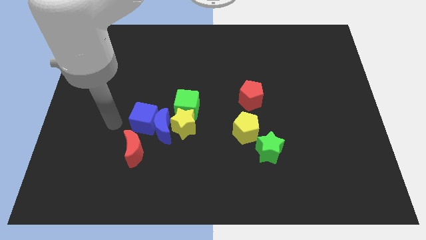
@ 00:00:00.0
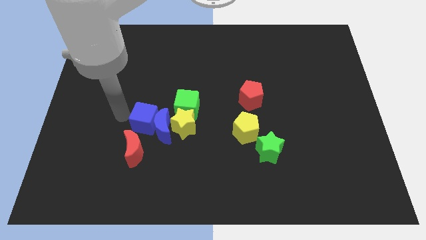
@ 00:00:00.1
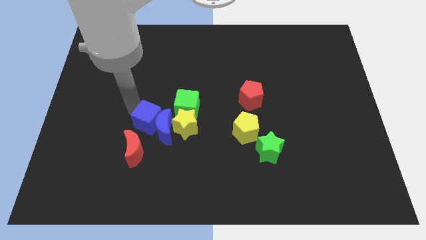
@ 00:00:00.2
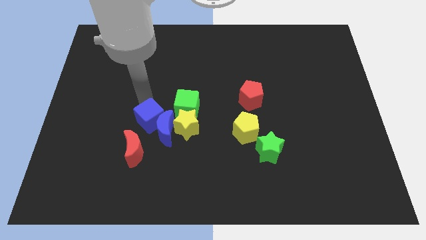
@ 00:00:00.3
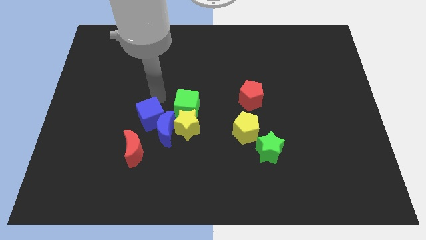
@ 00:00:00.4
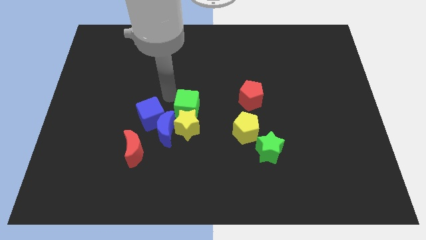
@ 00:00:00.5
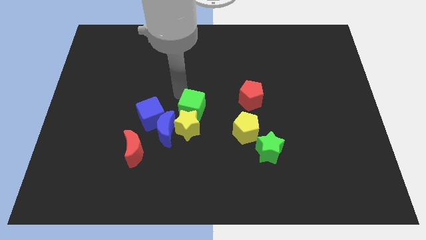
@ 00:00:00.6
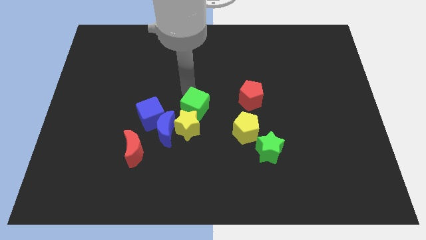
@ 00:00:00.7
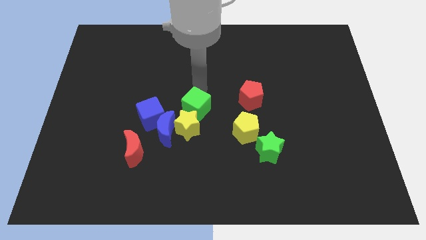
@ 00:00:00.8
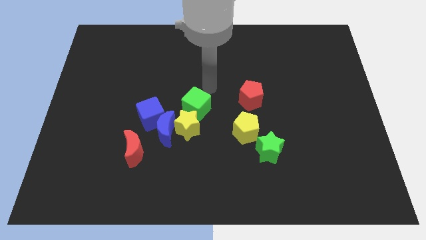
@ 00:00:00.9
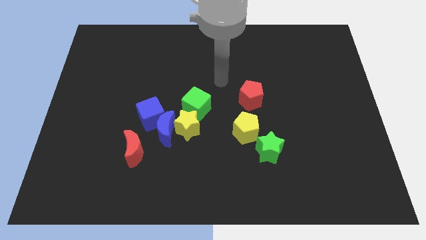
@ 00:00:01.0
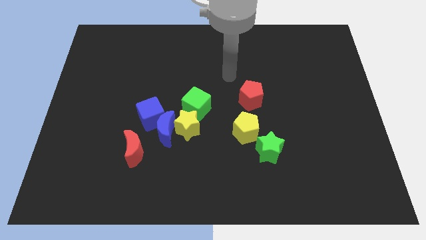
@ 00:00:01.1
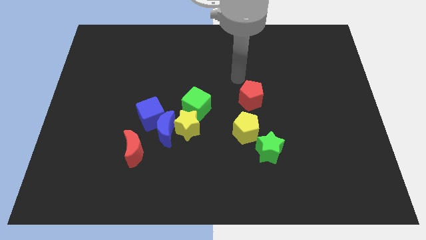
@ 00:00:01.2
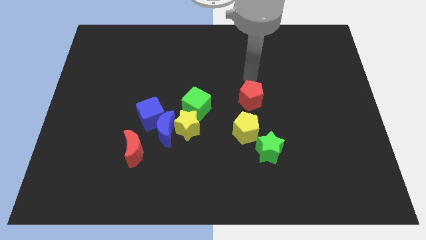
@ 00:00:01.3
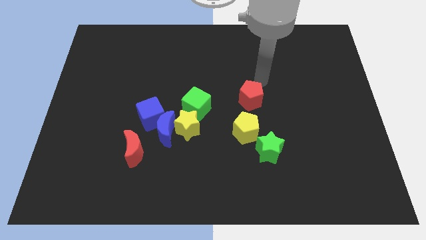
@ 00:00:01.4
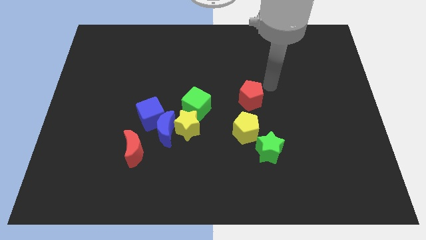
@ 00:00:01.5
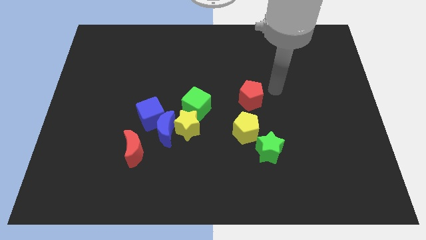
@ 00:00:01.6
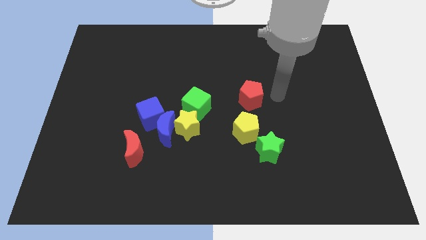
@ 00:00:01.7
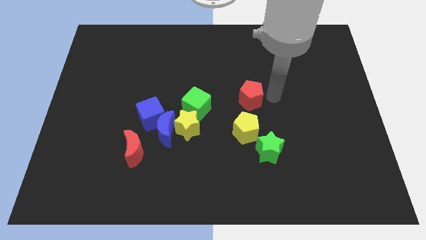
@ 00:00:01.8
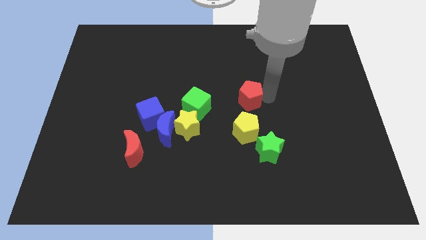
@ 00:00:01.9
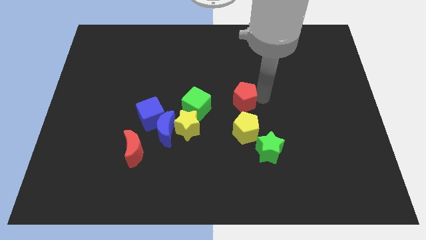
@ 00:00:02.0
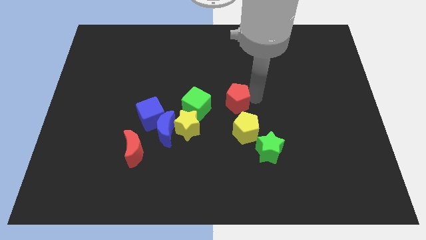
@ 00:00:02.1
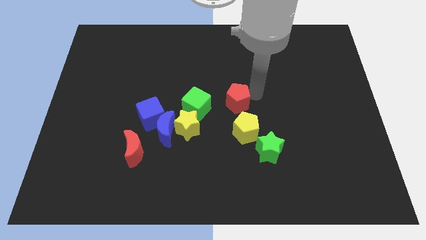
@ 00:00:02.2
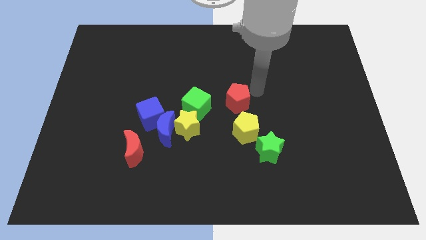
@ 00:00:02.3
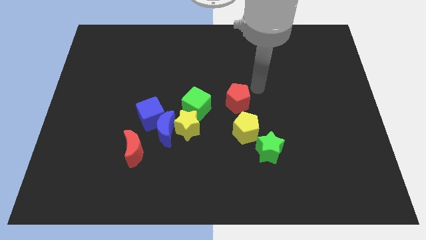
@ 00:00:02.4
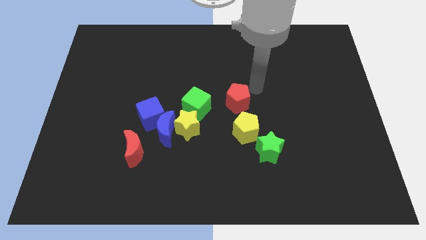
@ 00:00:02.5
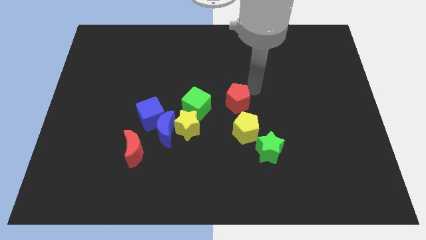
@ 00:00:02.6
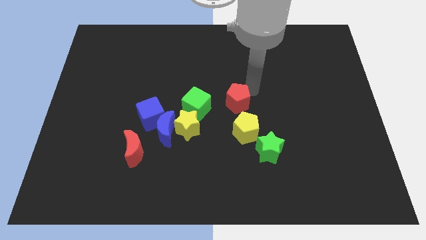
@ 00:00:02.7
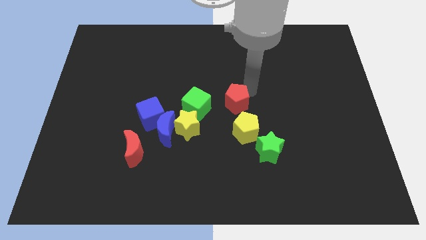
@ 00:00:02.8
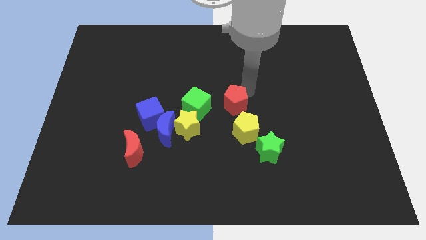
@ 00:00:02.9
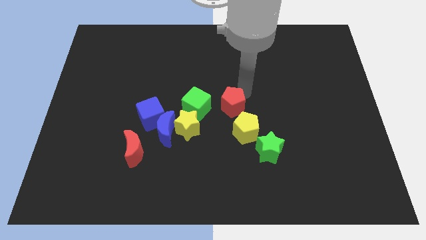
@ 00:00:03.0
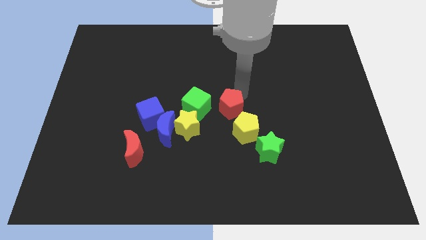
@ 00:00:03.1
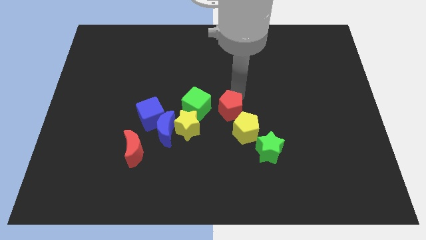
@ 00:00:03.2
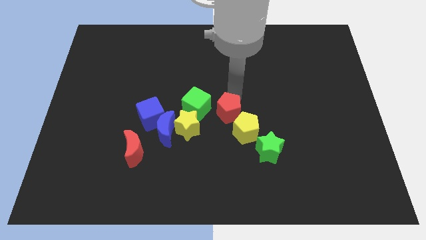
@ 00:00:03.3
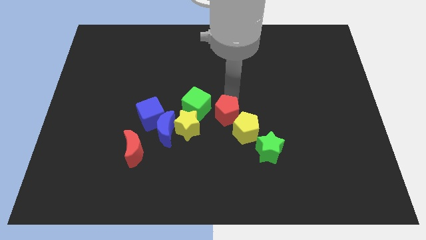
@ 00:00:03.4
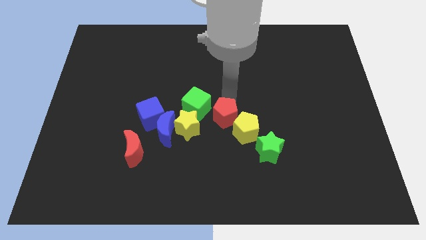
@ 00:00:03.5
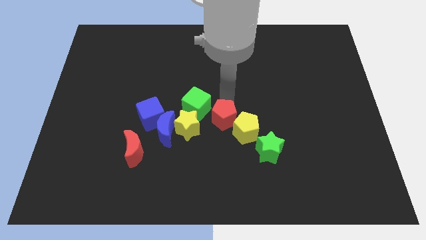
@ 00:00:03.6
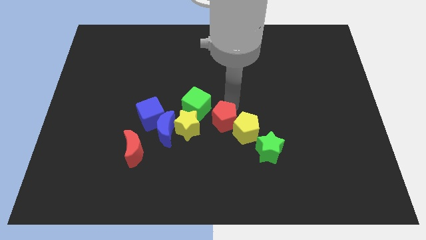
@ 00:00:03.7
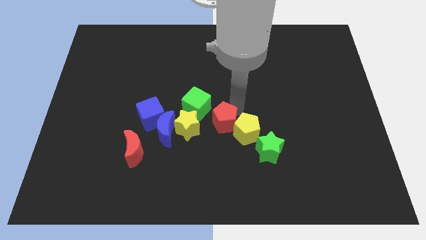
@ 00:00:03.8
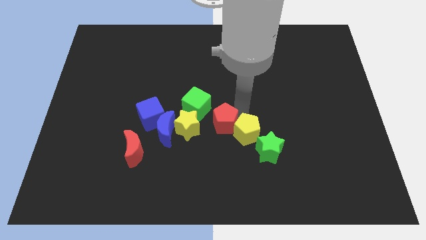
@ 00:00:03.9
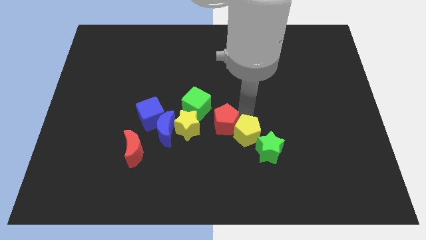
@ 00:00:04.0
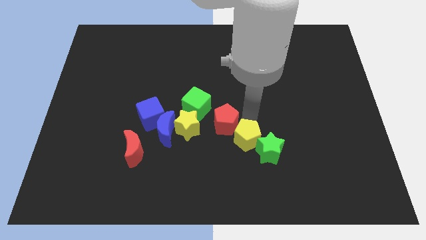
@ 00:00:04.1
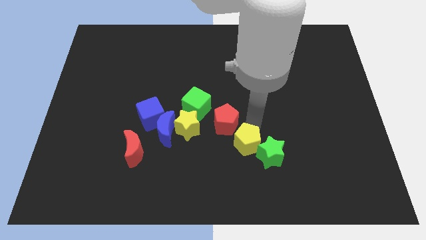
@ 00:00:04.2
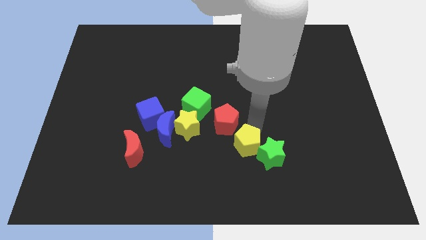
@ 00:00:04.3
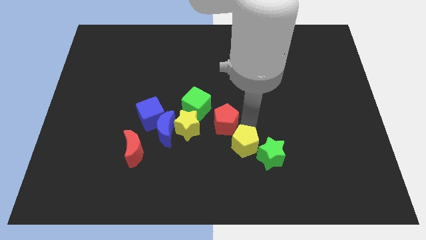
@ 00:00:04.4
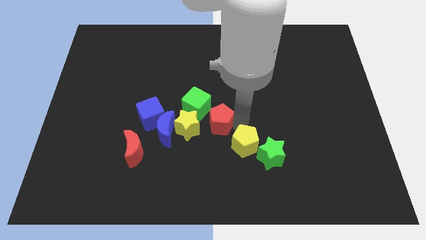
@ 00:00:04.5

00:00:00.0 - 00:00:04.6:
push the red pentagon to the right side of the blue cube

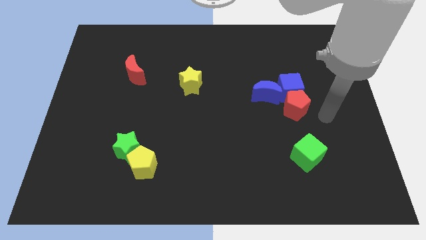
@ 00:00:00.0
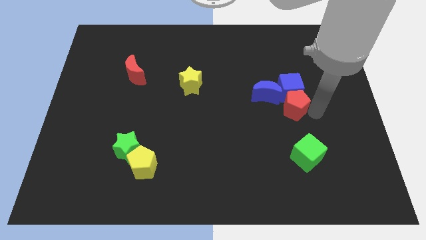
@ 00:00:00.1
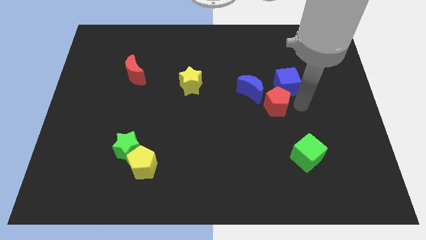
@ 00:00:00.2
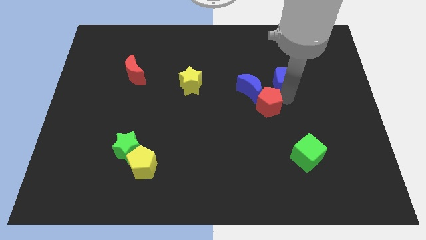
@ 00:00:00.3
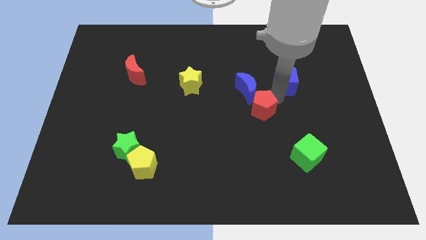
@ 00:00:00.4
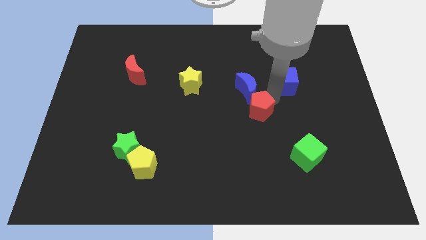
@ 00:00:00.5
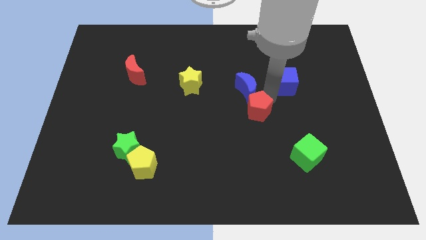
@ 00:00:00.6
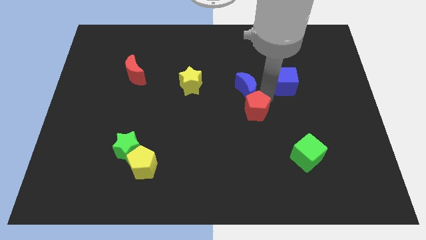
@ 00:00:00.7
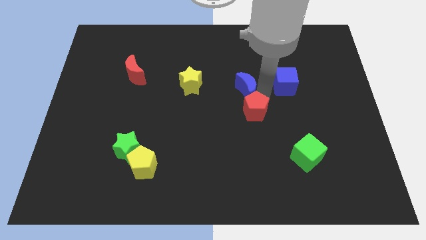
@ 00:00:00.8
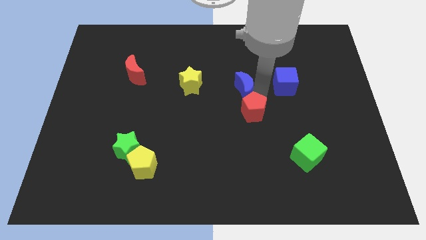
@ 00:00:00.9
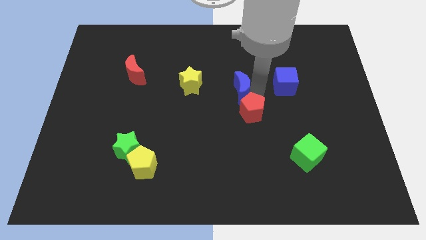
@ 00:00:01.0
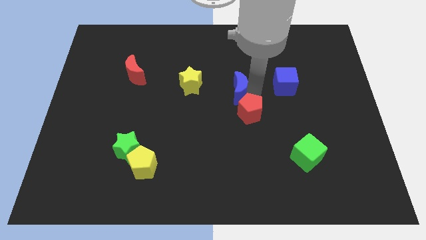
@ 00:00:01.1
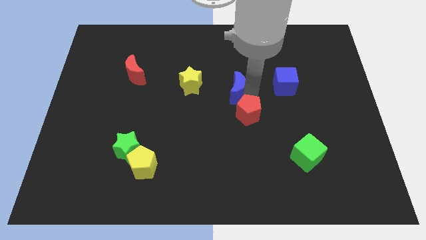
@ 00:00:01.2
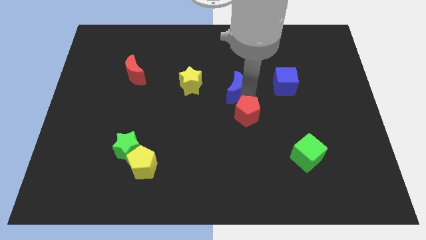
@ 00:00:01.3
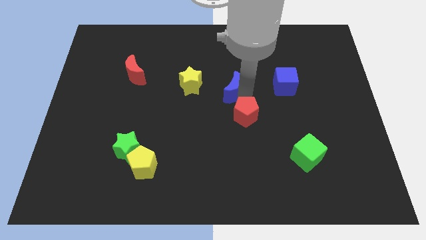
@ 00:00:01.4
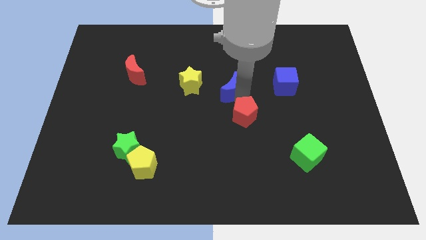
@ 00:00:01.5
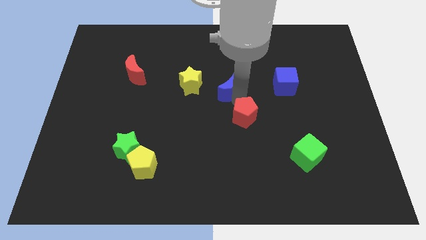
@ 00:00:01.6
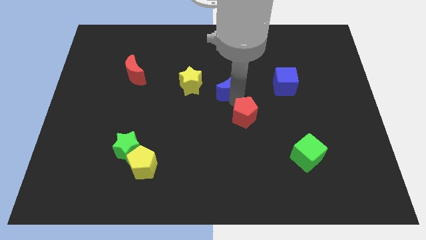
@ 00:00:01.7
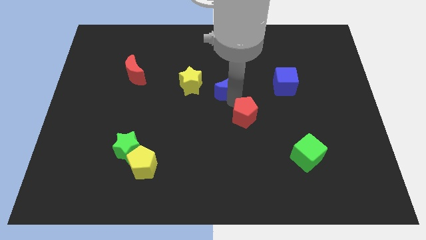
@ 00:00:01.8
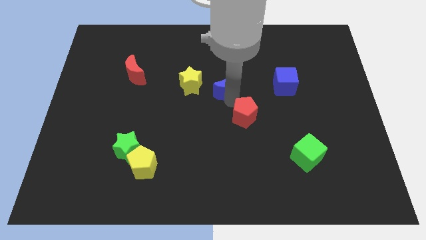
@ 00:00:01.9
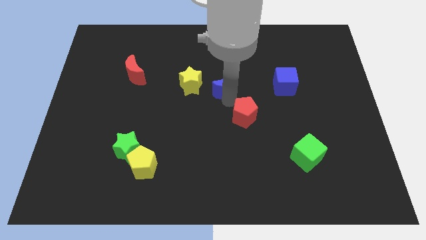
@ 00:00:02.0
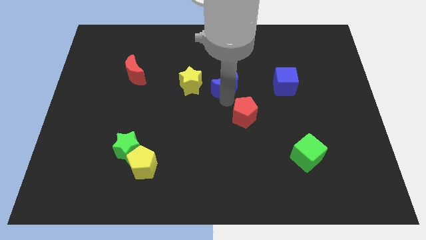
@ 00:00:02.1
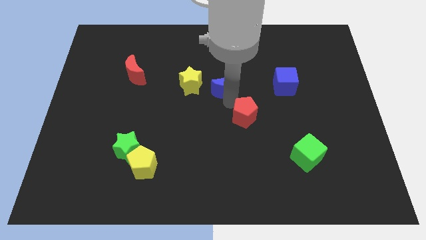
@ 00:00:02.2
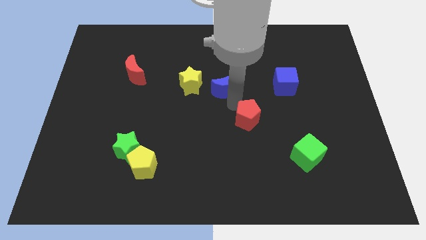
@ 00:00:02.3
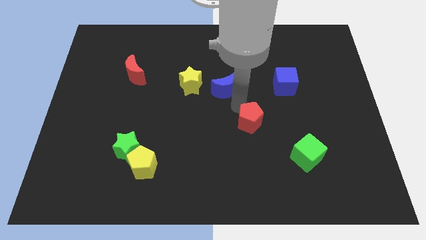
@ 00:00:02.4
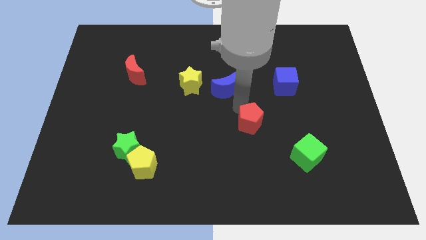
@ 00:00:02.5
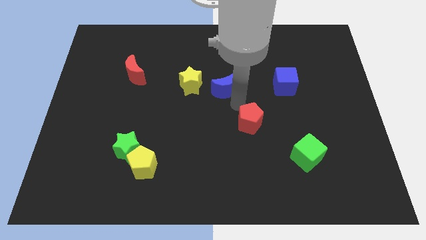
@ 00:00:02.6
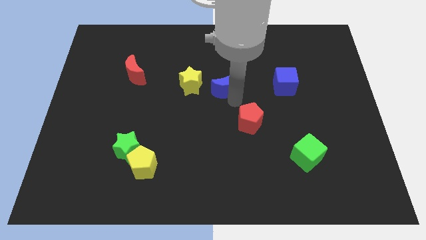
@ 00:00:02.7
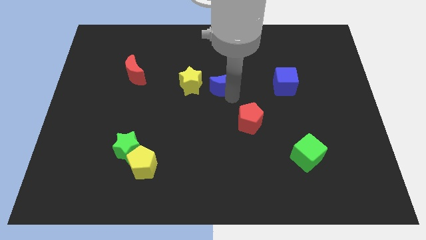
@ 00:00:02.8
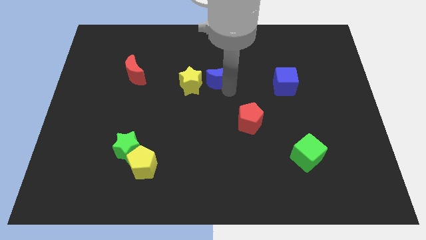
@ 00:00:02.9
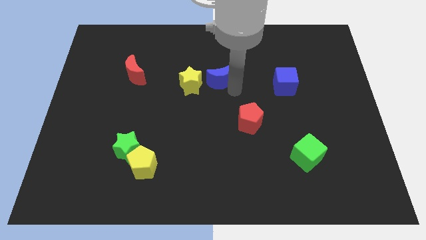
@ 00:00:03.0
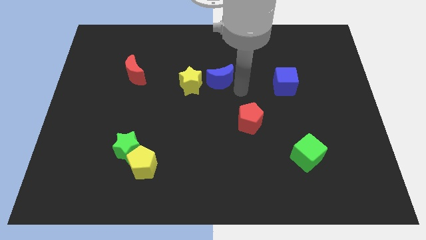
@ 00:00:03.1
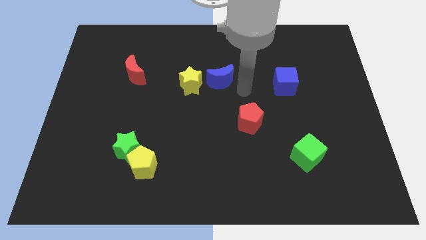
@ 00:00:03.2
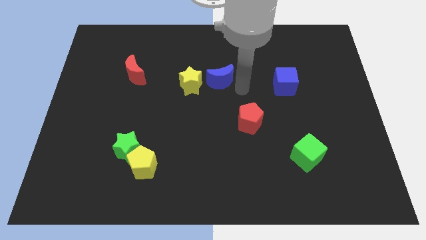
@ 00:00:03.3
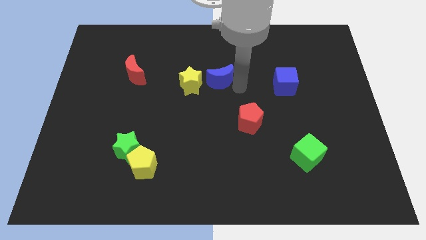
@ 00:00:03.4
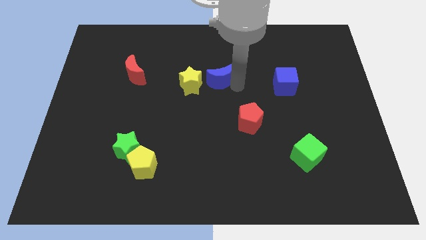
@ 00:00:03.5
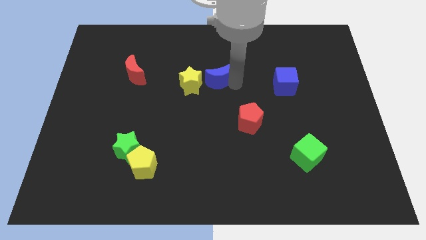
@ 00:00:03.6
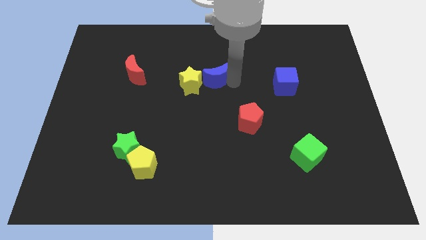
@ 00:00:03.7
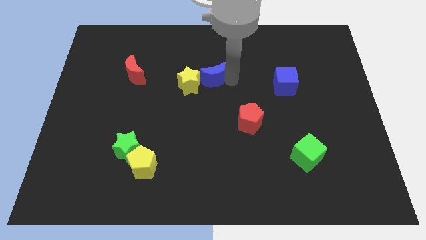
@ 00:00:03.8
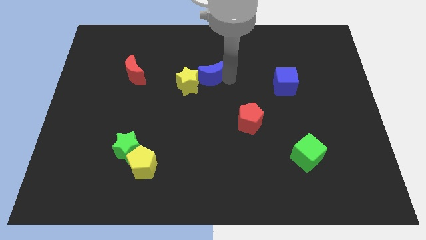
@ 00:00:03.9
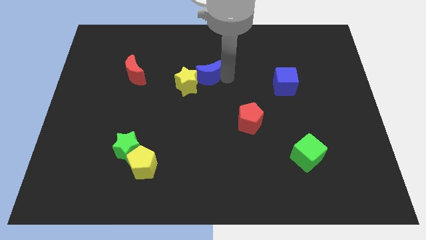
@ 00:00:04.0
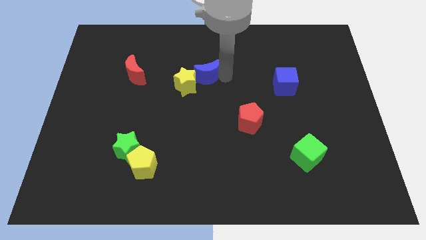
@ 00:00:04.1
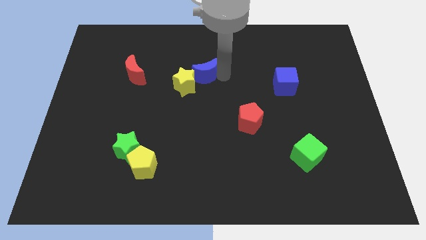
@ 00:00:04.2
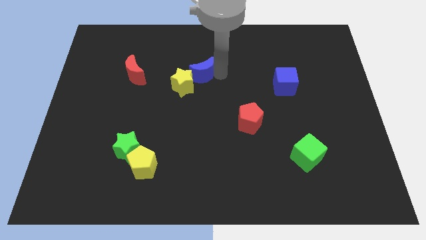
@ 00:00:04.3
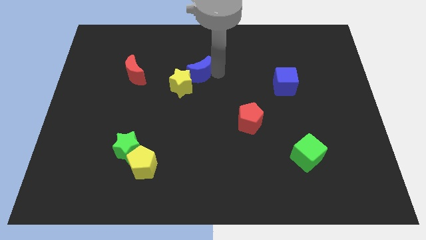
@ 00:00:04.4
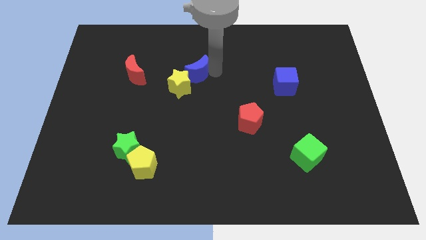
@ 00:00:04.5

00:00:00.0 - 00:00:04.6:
move the blue moon just right of the red moon
